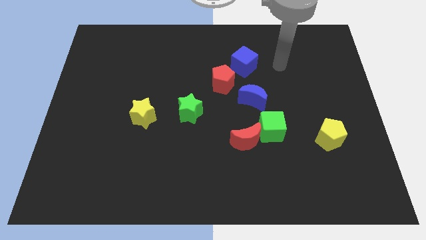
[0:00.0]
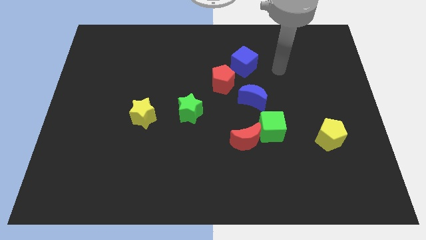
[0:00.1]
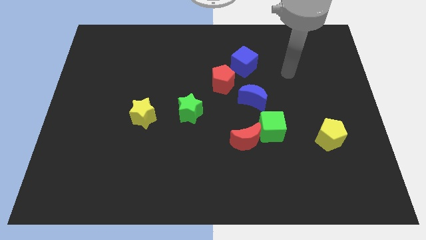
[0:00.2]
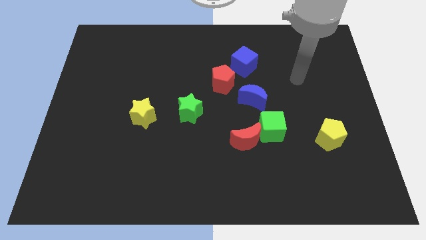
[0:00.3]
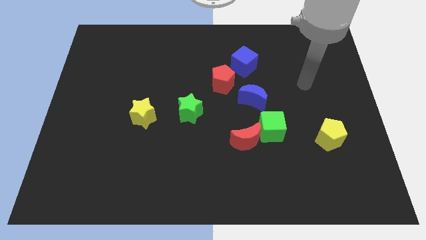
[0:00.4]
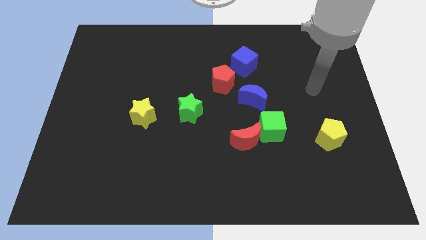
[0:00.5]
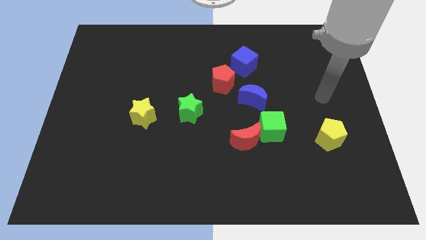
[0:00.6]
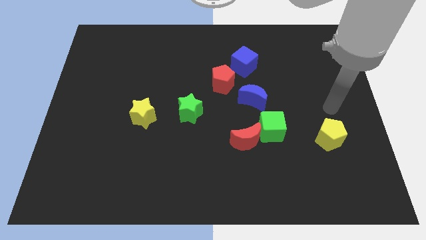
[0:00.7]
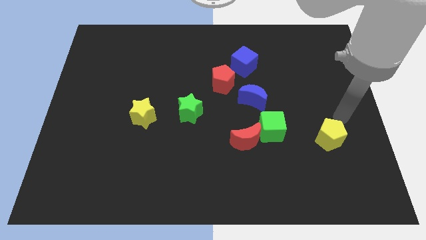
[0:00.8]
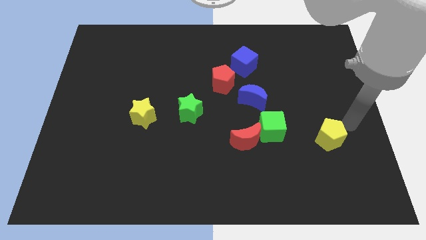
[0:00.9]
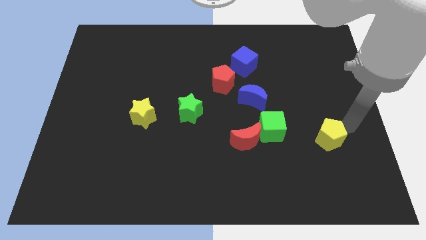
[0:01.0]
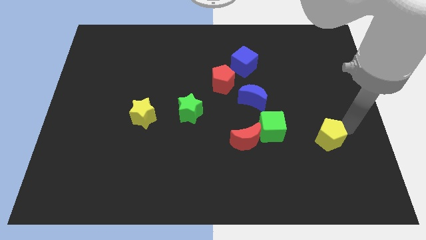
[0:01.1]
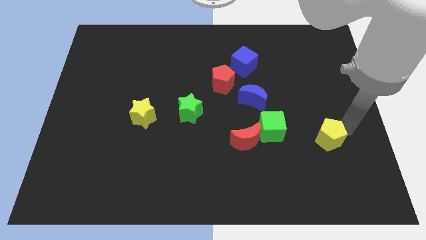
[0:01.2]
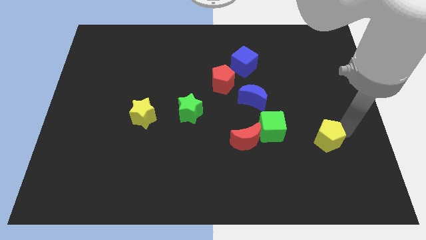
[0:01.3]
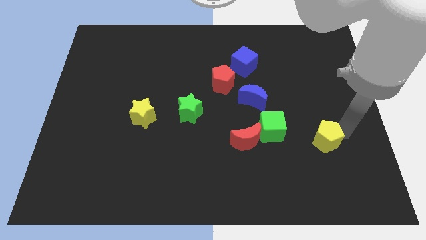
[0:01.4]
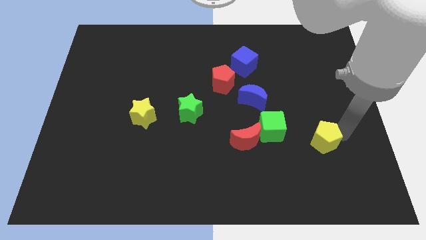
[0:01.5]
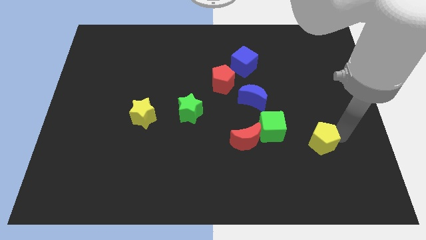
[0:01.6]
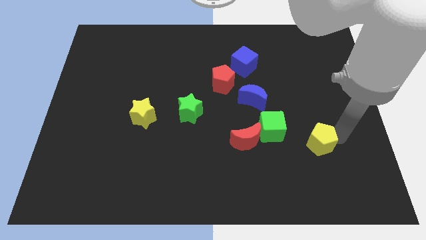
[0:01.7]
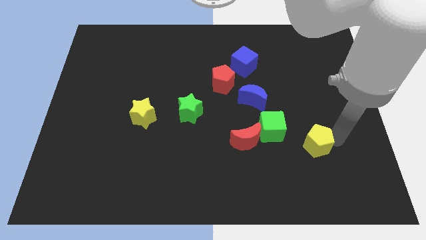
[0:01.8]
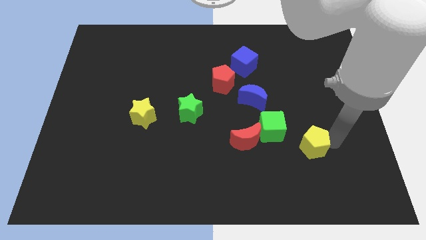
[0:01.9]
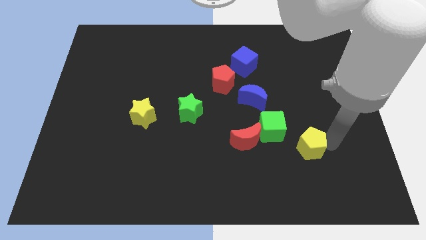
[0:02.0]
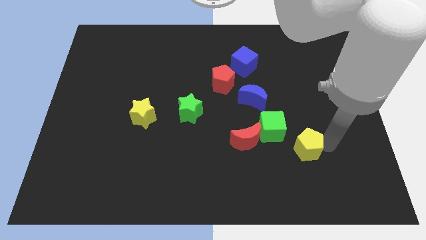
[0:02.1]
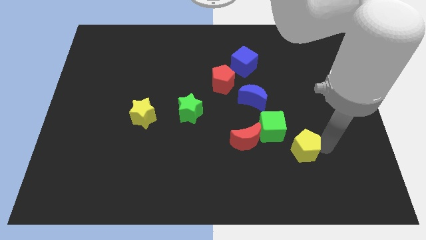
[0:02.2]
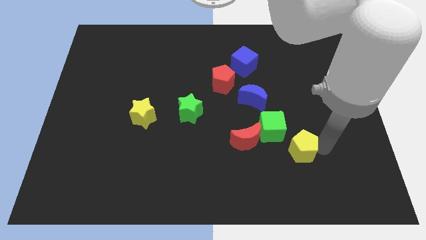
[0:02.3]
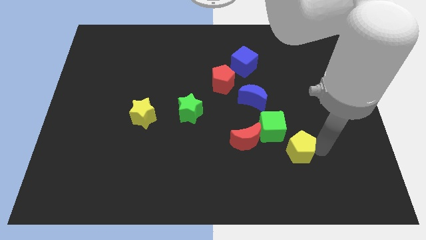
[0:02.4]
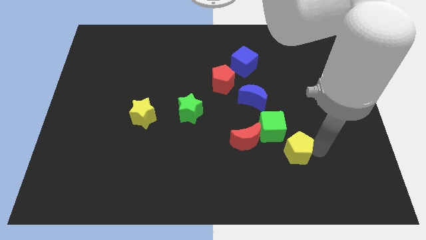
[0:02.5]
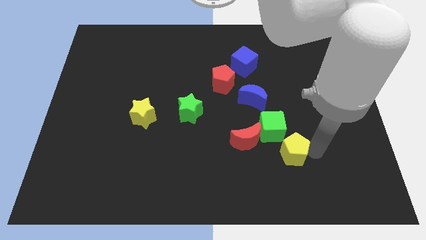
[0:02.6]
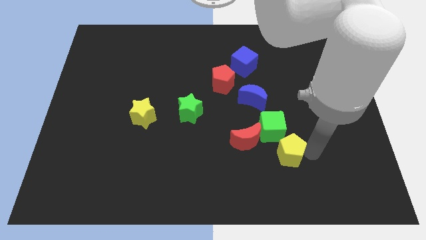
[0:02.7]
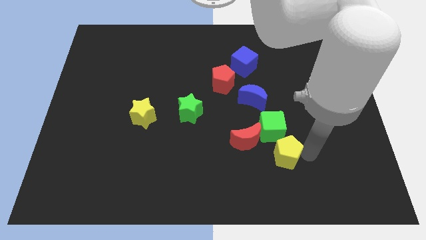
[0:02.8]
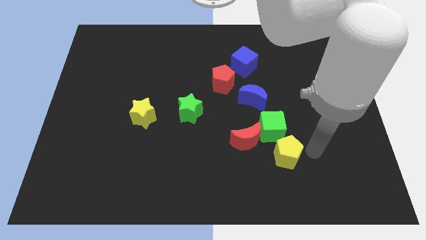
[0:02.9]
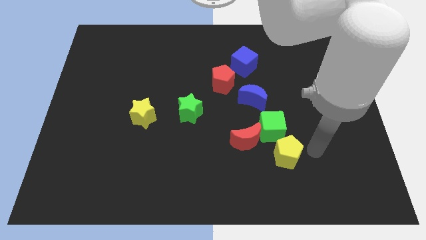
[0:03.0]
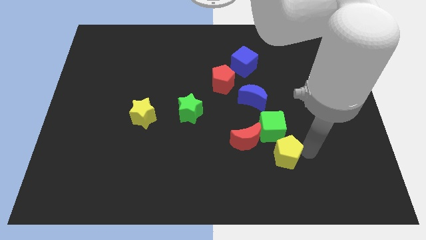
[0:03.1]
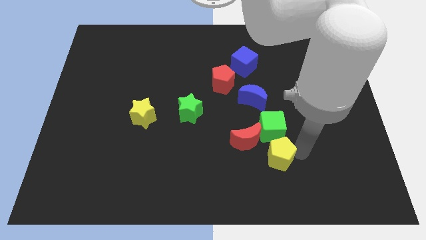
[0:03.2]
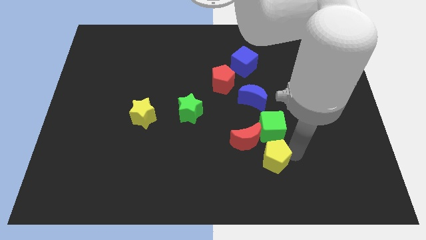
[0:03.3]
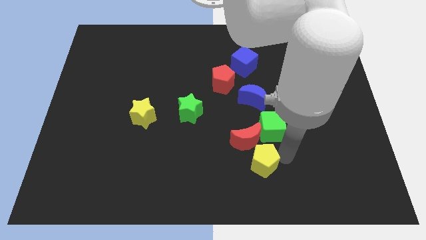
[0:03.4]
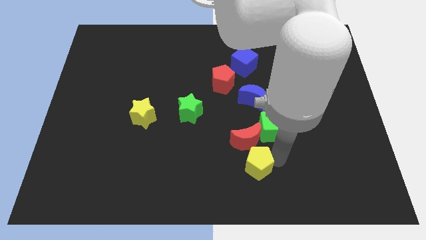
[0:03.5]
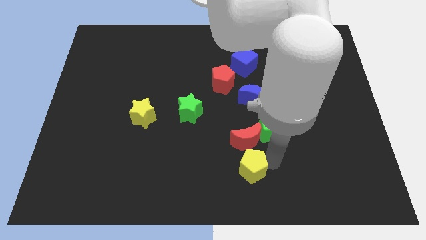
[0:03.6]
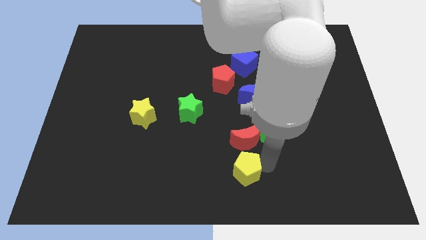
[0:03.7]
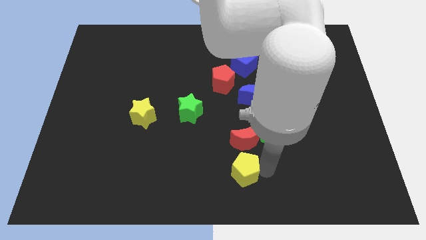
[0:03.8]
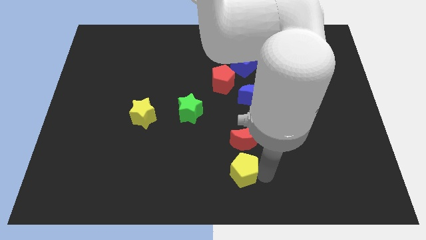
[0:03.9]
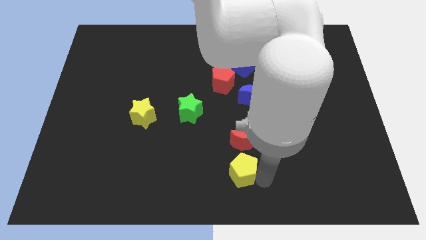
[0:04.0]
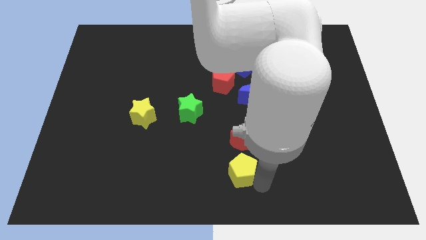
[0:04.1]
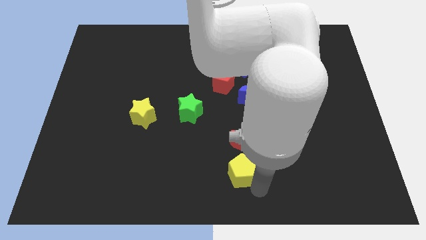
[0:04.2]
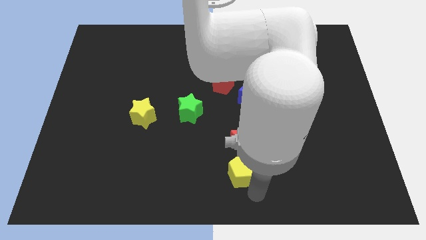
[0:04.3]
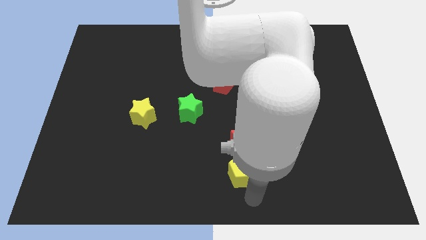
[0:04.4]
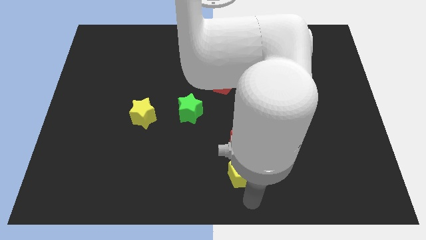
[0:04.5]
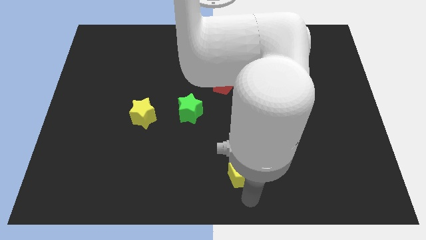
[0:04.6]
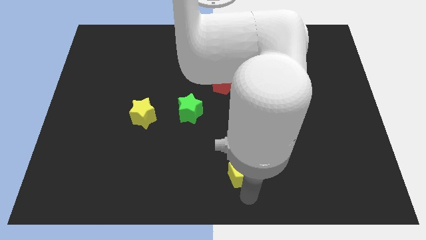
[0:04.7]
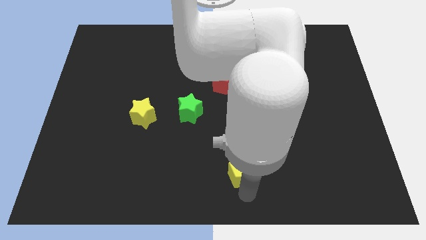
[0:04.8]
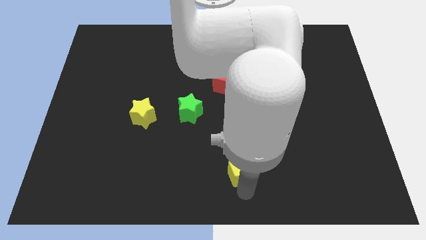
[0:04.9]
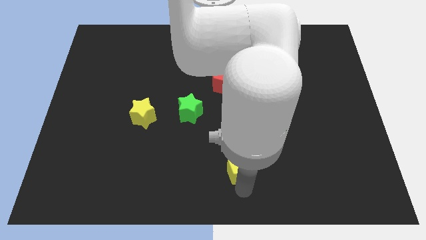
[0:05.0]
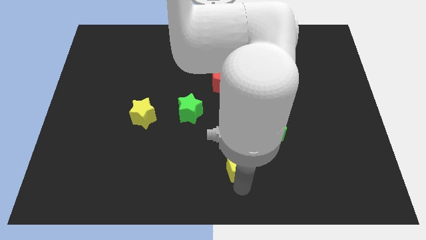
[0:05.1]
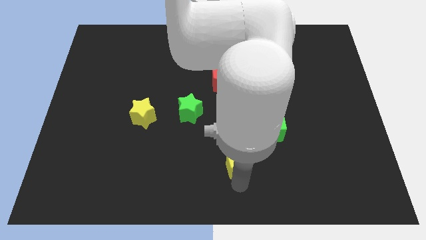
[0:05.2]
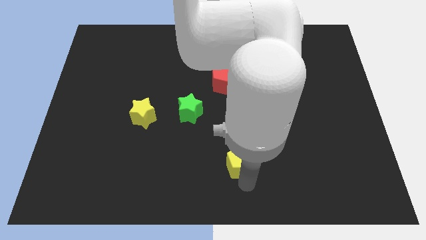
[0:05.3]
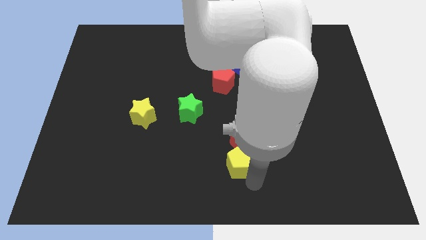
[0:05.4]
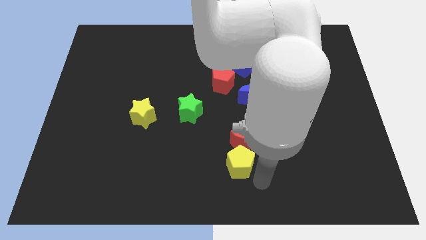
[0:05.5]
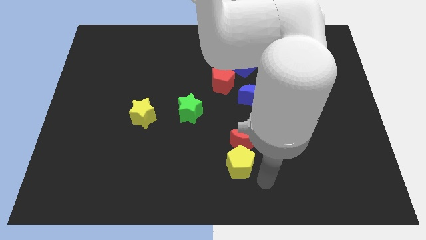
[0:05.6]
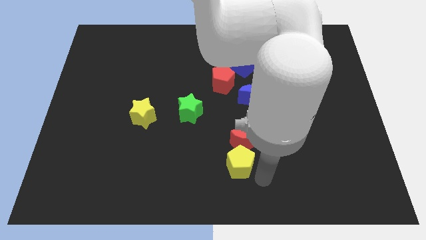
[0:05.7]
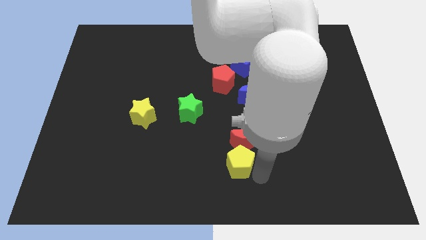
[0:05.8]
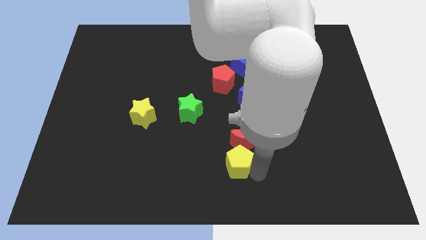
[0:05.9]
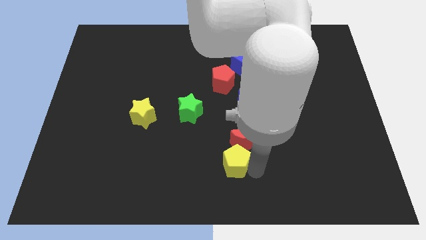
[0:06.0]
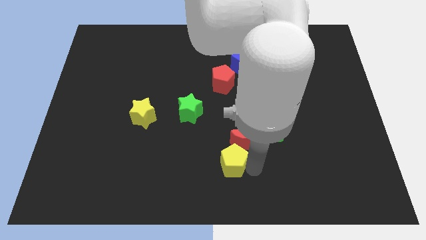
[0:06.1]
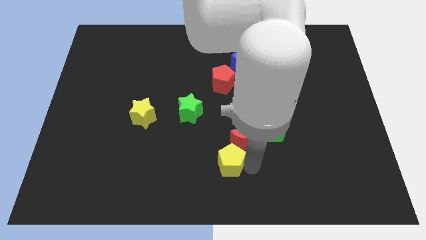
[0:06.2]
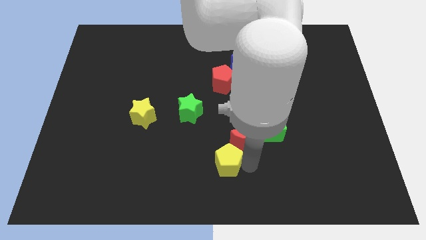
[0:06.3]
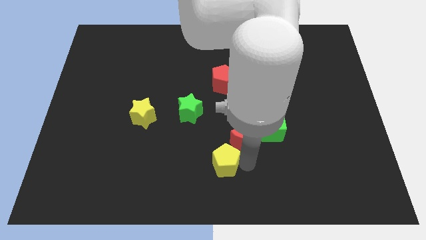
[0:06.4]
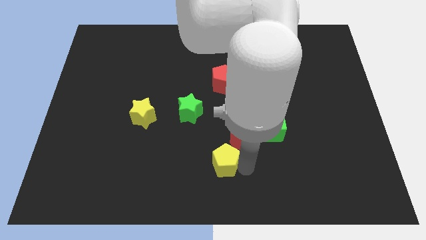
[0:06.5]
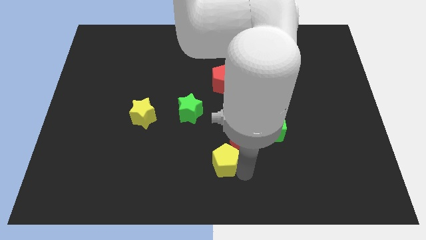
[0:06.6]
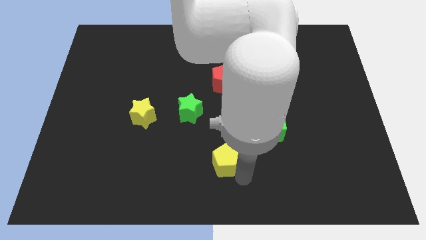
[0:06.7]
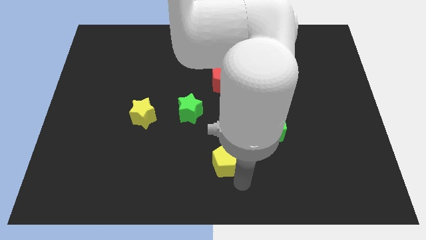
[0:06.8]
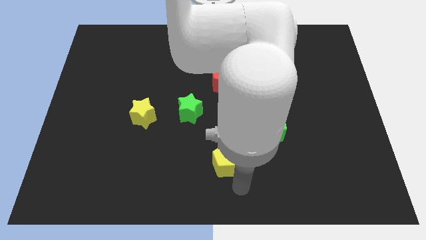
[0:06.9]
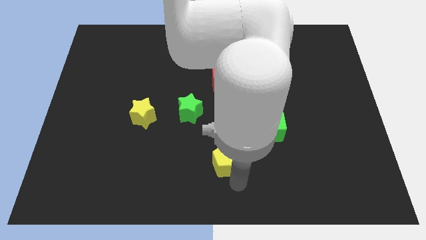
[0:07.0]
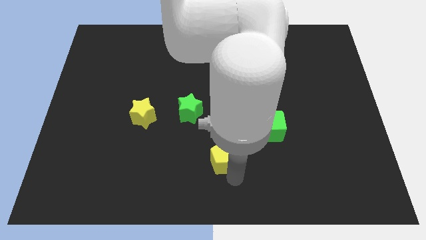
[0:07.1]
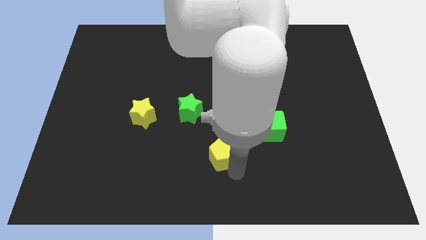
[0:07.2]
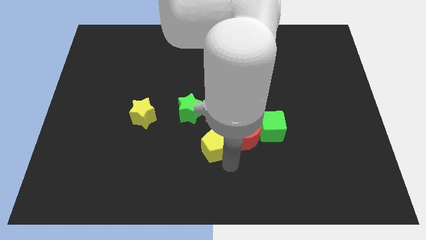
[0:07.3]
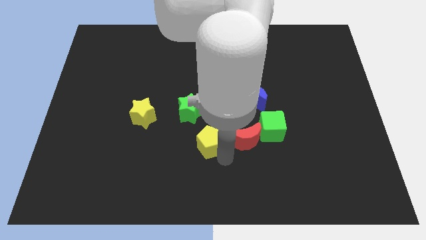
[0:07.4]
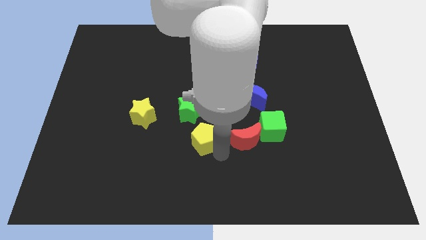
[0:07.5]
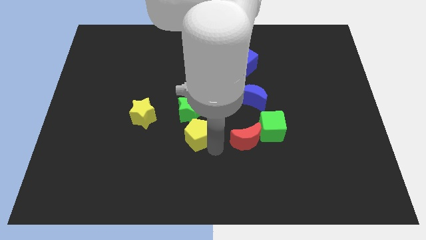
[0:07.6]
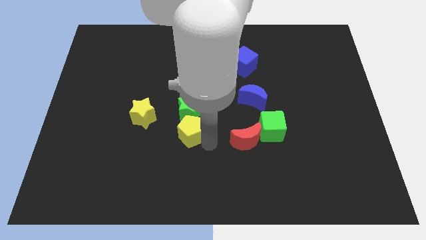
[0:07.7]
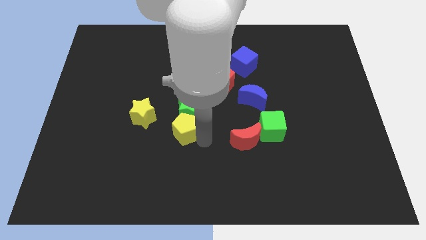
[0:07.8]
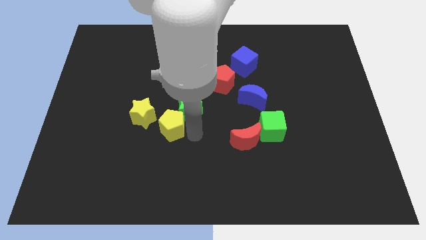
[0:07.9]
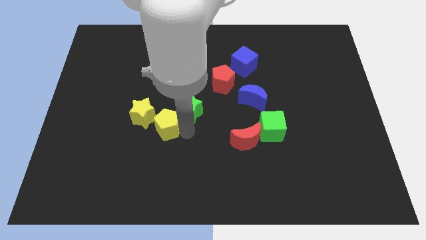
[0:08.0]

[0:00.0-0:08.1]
move the yellow pentagon close to the yellow star
